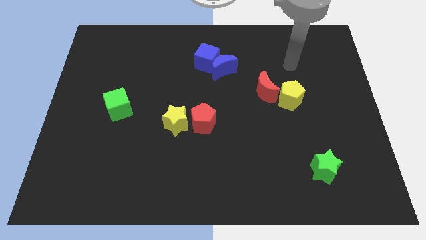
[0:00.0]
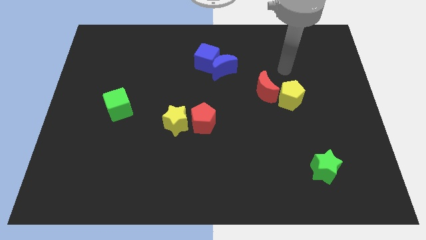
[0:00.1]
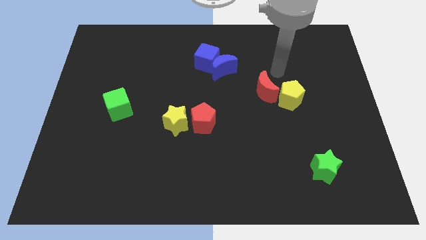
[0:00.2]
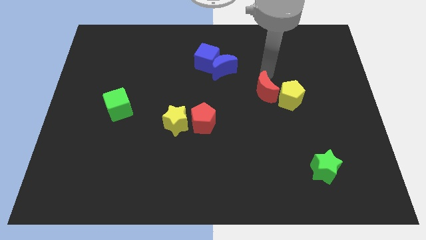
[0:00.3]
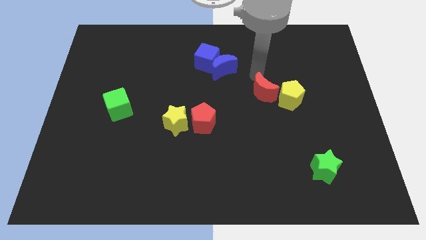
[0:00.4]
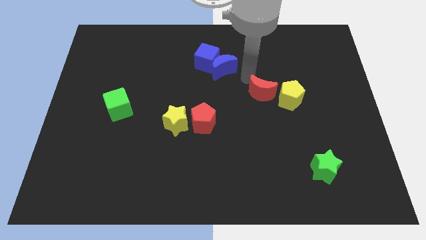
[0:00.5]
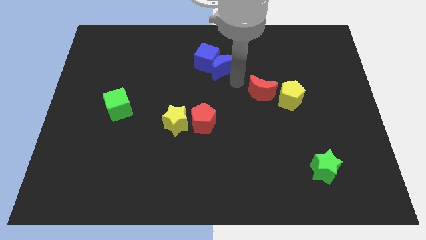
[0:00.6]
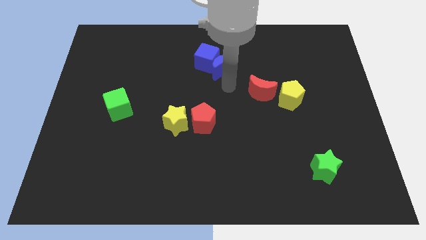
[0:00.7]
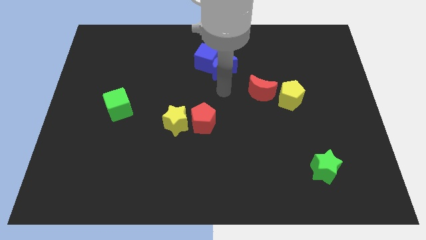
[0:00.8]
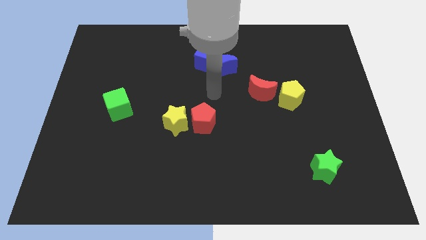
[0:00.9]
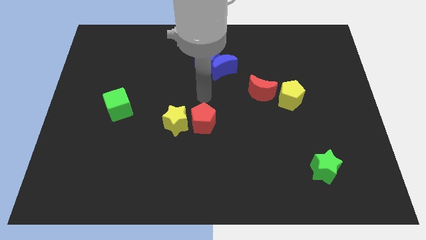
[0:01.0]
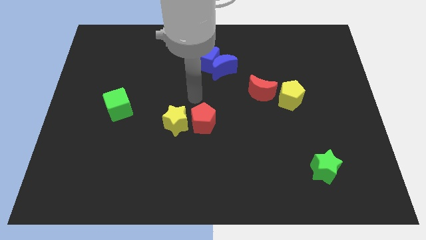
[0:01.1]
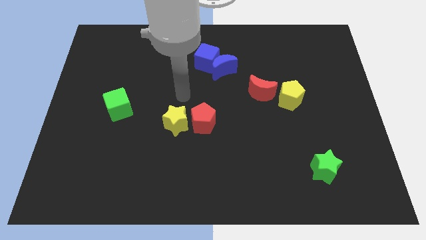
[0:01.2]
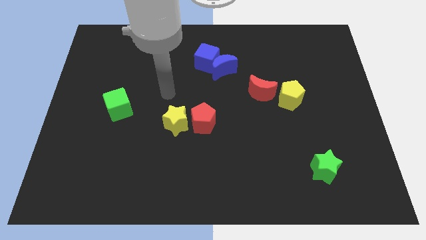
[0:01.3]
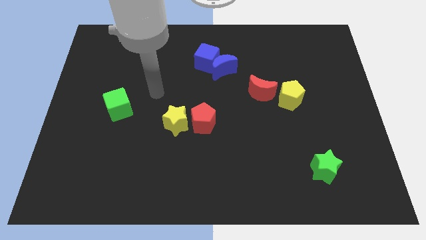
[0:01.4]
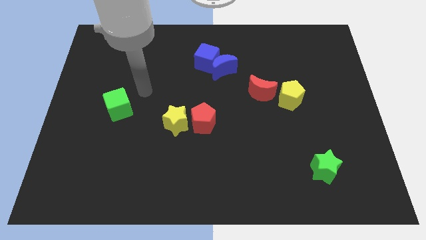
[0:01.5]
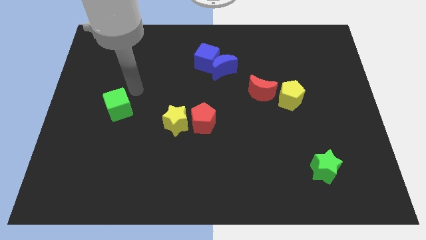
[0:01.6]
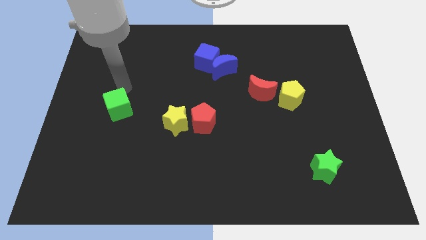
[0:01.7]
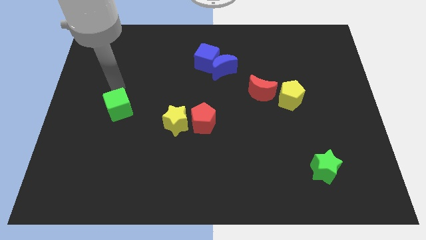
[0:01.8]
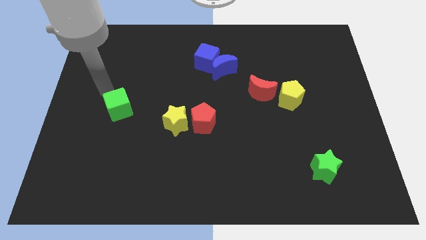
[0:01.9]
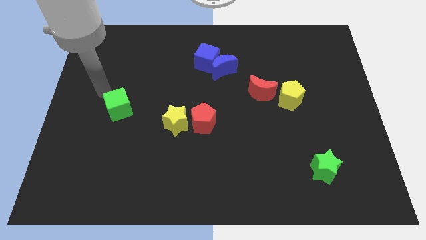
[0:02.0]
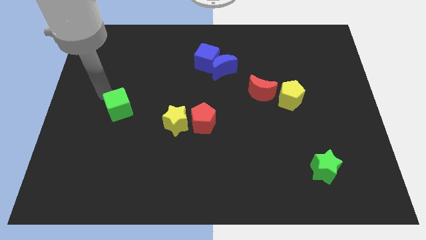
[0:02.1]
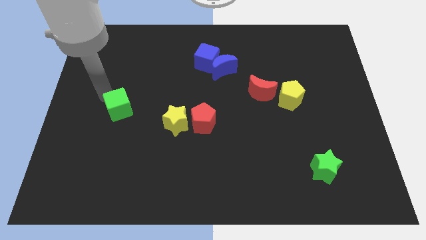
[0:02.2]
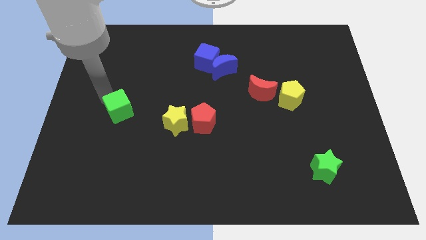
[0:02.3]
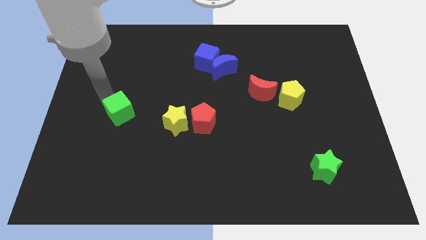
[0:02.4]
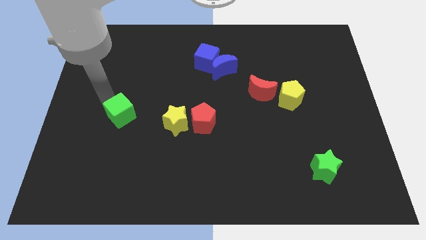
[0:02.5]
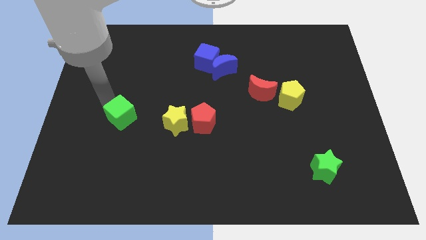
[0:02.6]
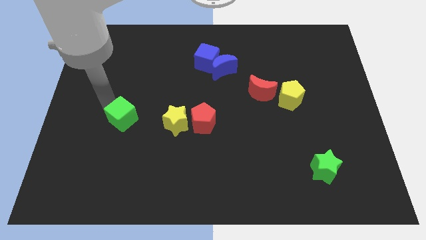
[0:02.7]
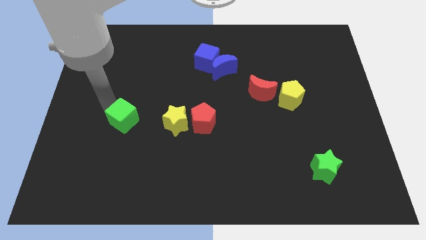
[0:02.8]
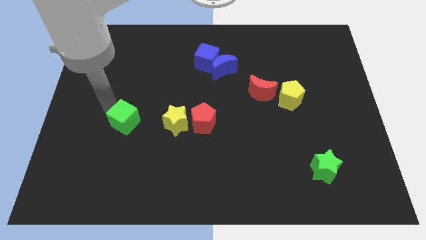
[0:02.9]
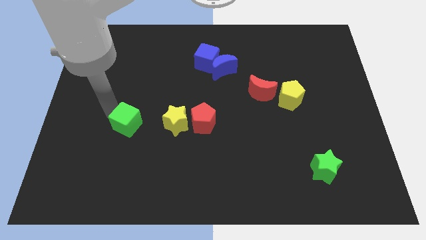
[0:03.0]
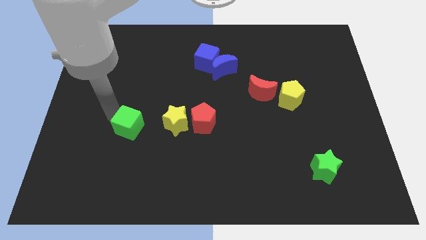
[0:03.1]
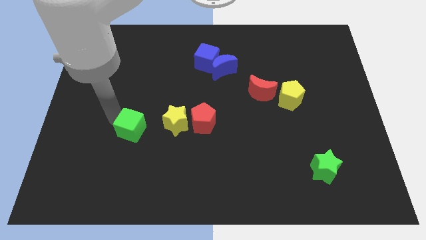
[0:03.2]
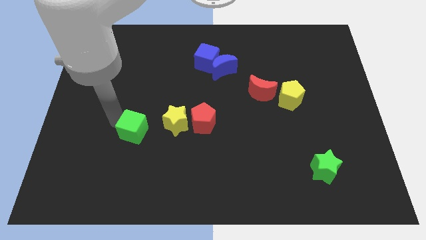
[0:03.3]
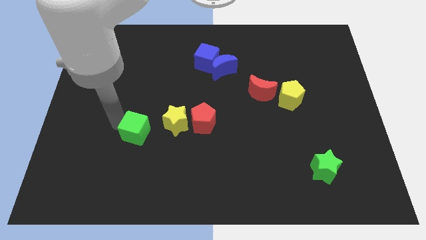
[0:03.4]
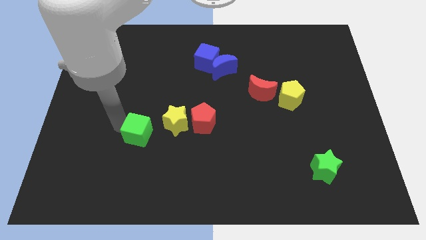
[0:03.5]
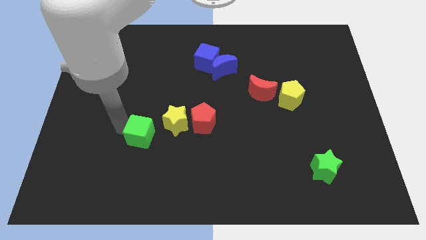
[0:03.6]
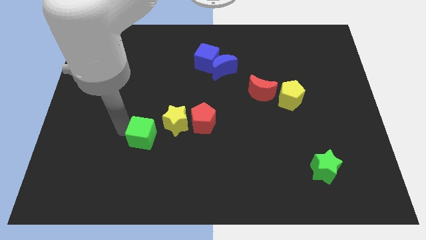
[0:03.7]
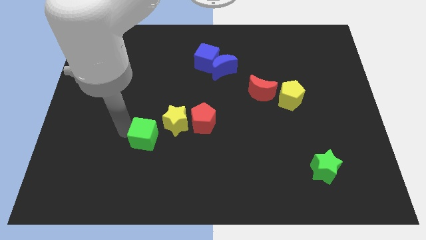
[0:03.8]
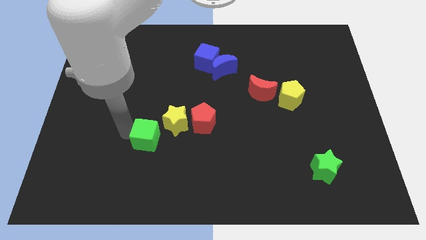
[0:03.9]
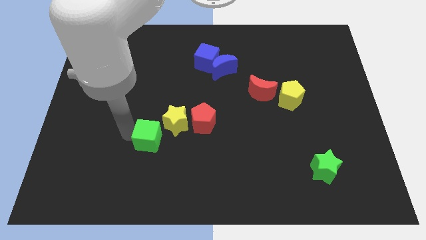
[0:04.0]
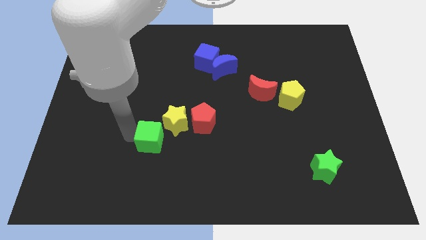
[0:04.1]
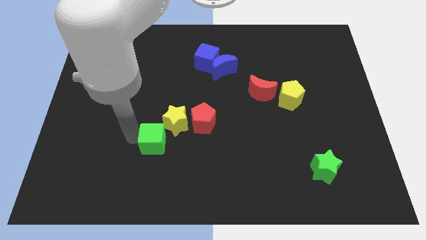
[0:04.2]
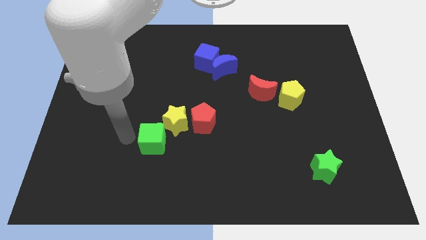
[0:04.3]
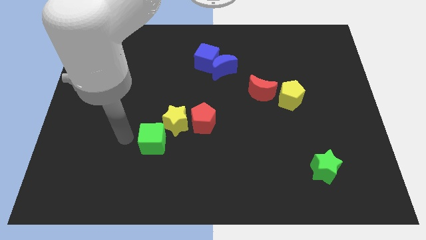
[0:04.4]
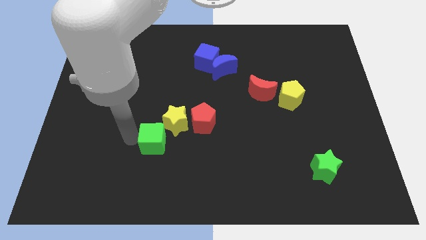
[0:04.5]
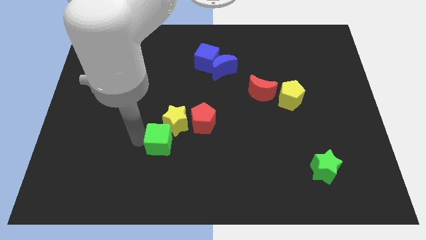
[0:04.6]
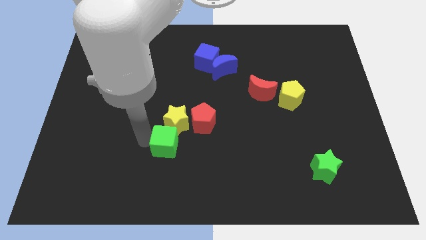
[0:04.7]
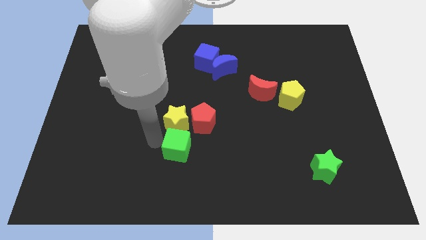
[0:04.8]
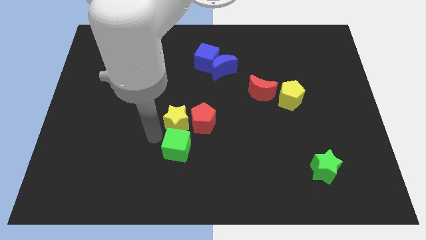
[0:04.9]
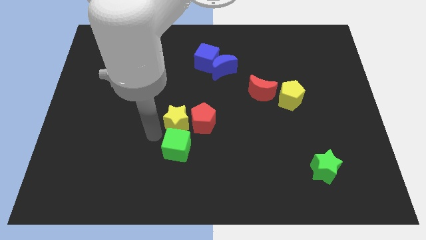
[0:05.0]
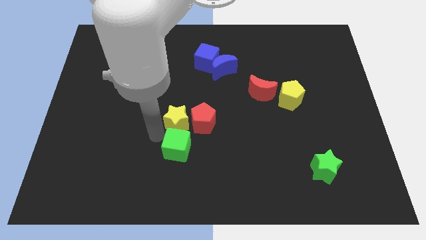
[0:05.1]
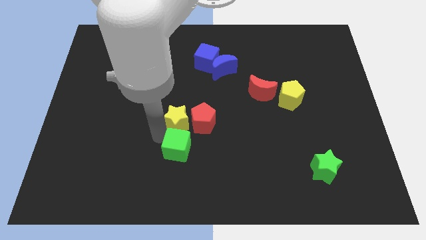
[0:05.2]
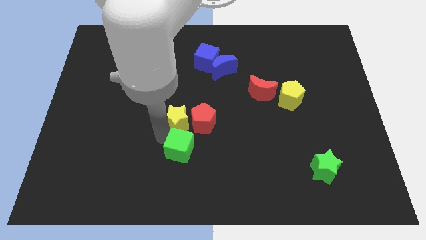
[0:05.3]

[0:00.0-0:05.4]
slide the green cube below the red pentagon

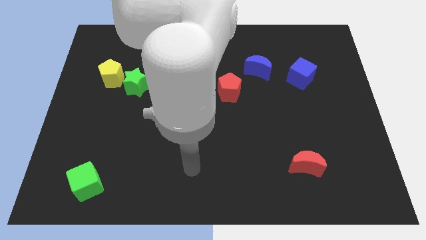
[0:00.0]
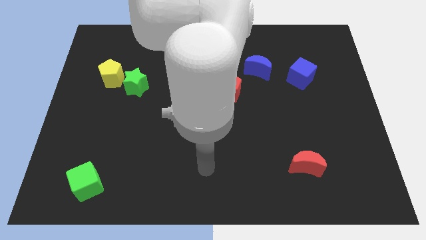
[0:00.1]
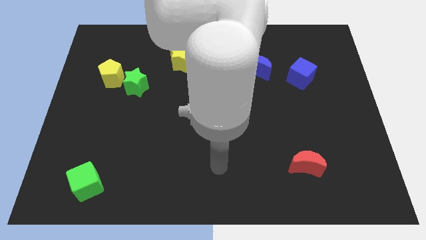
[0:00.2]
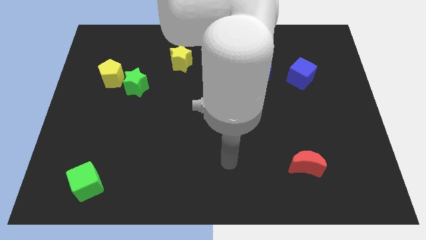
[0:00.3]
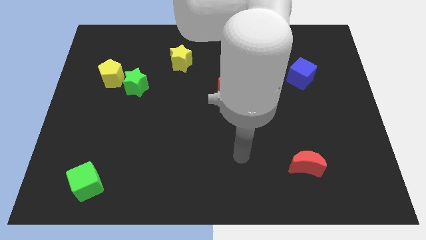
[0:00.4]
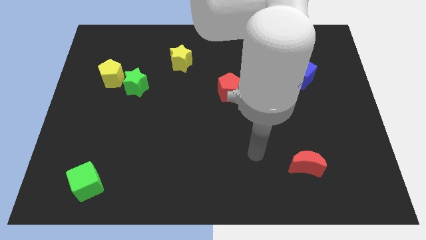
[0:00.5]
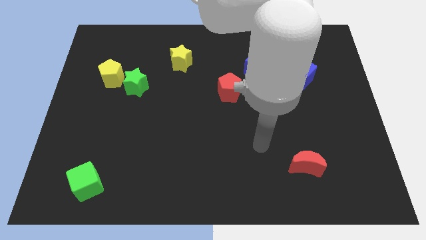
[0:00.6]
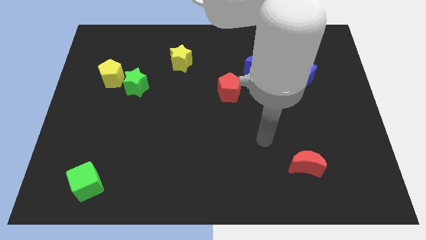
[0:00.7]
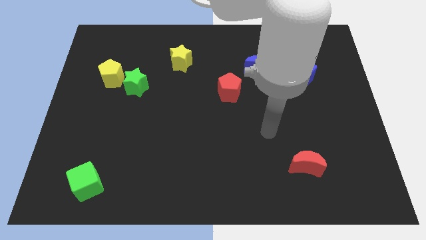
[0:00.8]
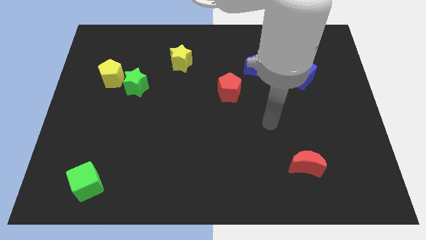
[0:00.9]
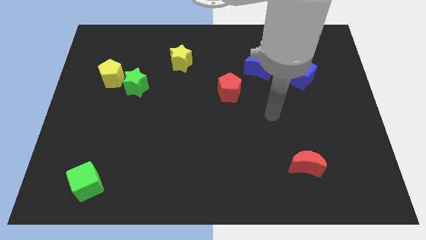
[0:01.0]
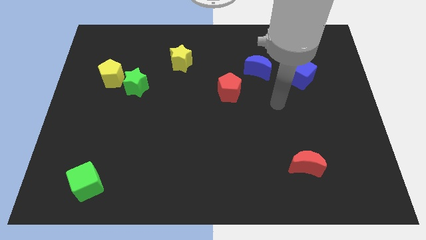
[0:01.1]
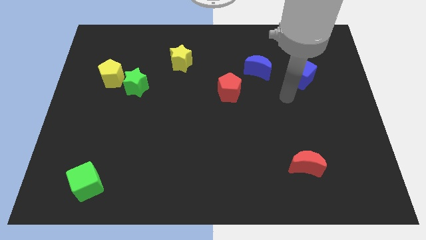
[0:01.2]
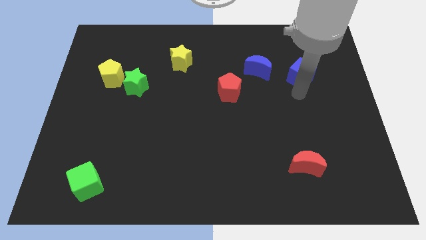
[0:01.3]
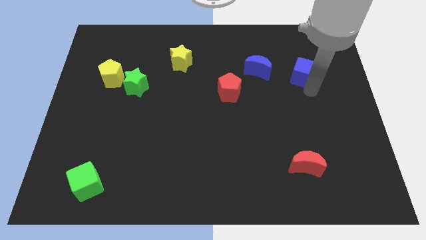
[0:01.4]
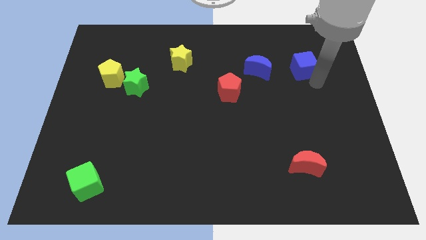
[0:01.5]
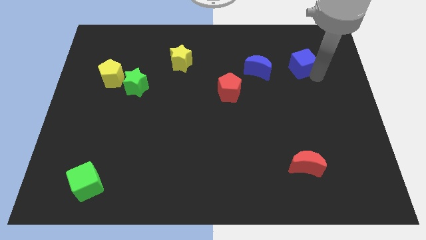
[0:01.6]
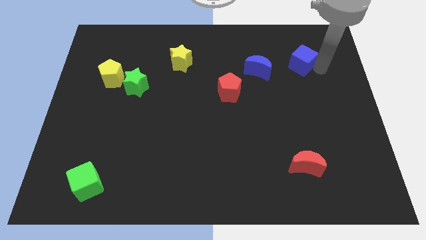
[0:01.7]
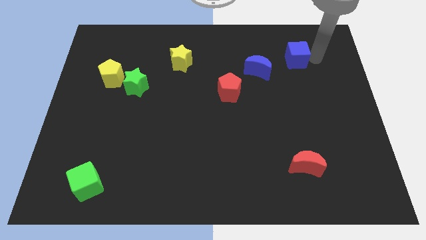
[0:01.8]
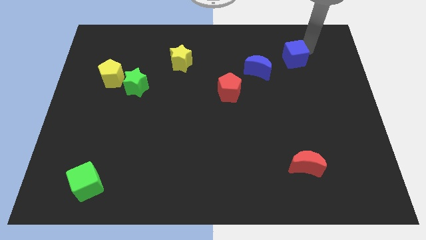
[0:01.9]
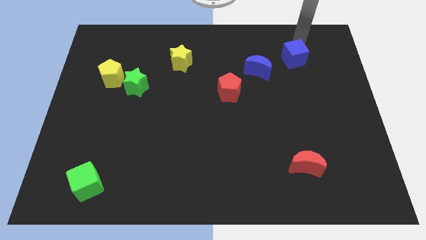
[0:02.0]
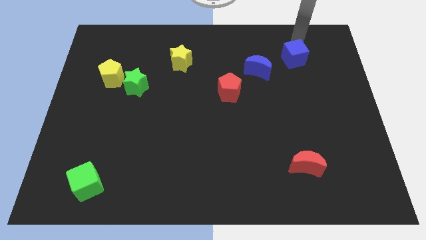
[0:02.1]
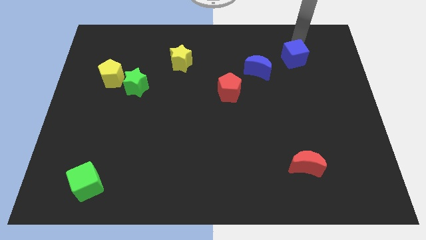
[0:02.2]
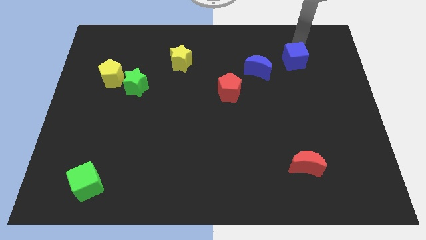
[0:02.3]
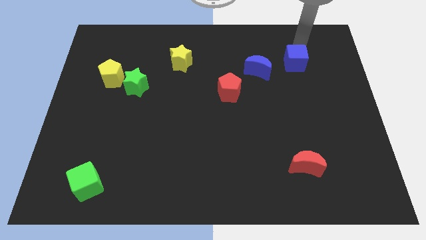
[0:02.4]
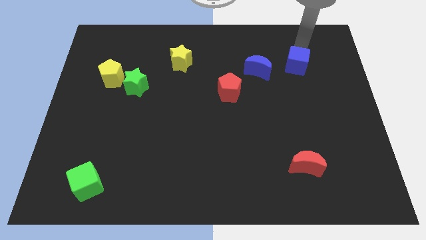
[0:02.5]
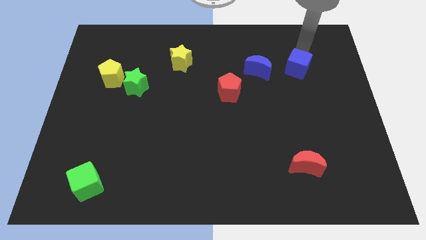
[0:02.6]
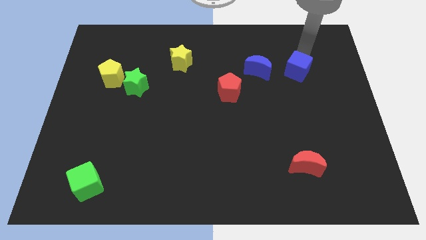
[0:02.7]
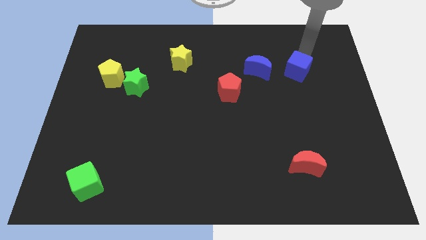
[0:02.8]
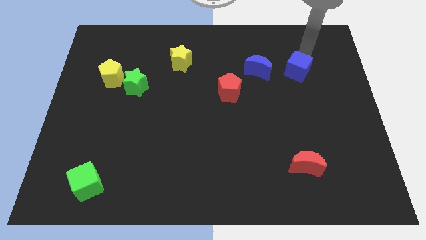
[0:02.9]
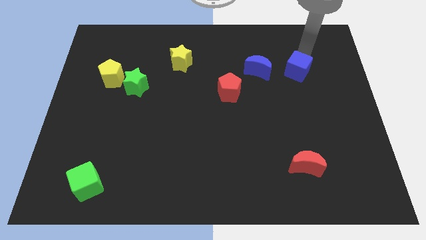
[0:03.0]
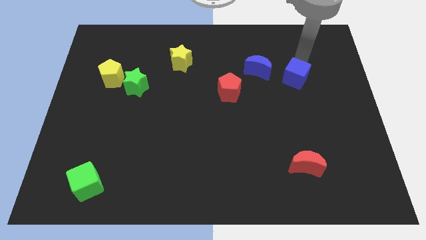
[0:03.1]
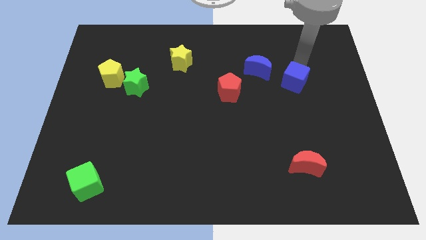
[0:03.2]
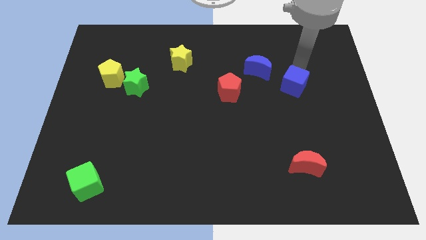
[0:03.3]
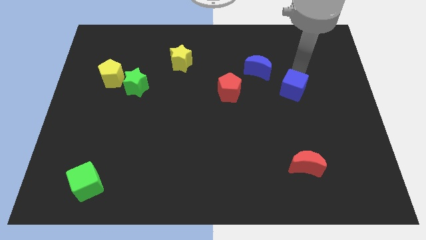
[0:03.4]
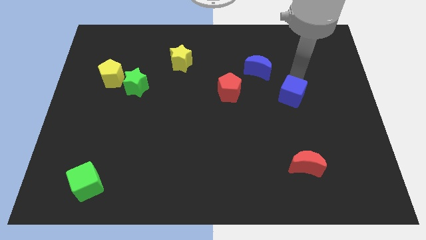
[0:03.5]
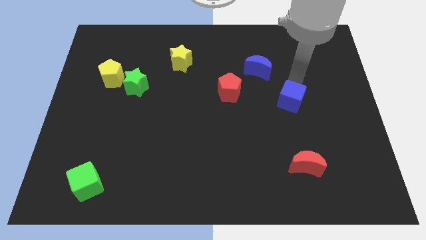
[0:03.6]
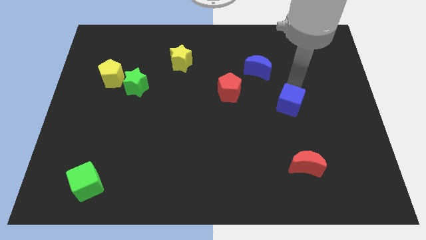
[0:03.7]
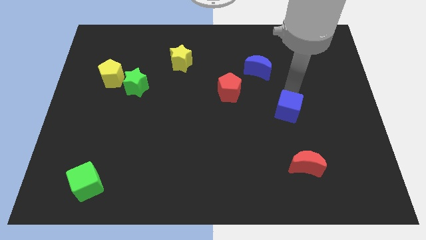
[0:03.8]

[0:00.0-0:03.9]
push the blue cube above the red moon
